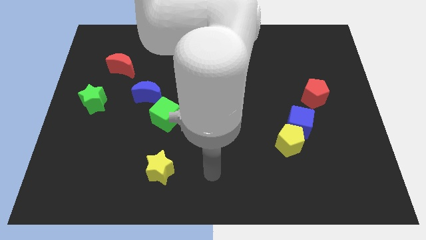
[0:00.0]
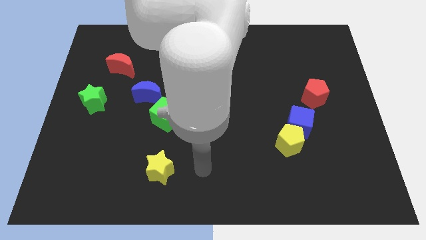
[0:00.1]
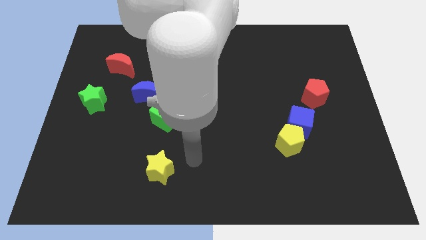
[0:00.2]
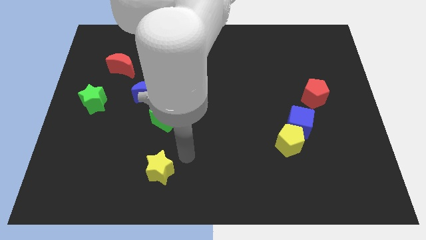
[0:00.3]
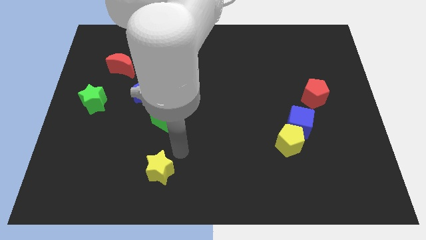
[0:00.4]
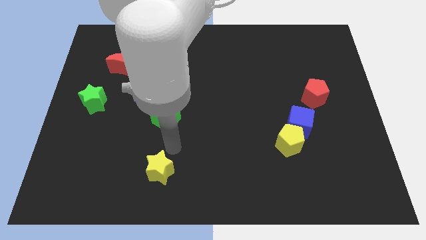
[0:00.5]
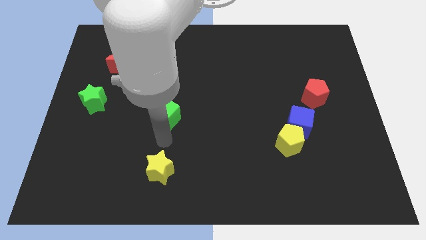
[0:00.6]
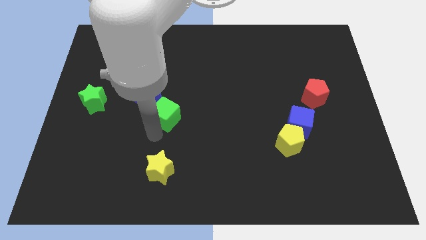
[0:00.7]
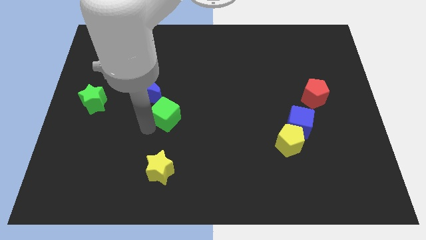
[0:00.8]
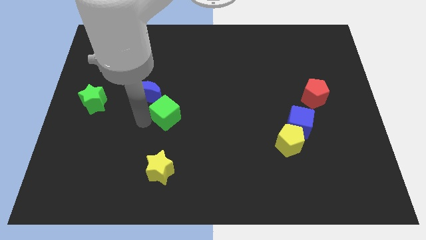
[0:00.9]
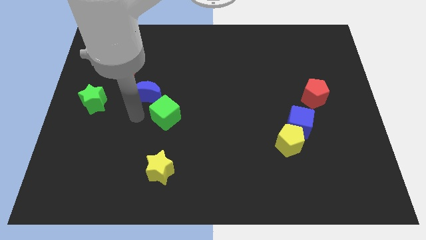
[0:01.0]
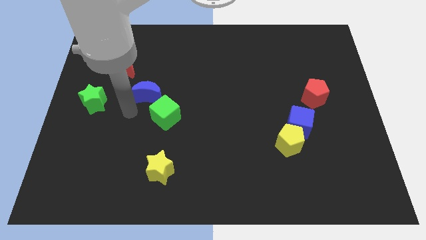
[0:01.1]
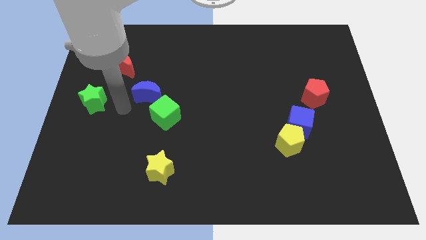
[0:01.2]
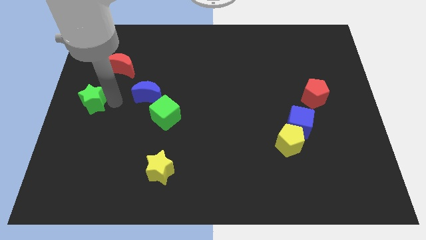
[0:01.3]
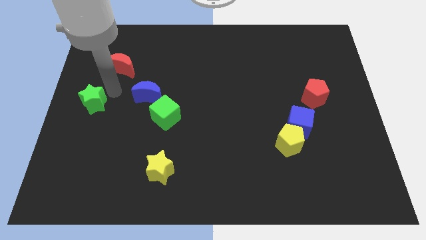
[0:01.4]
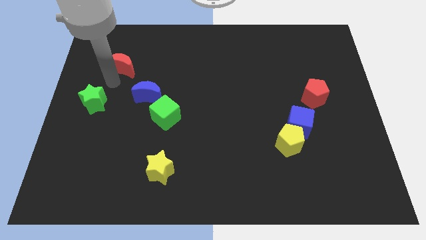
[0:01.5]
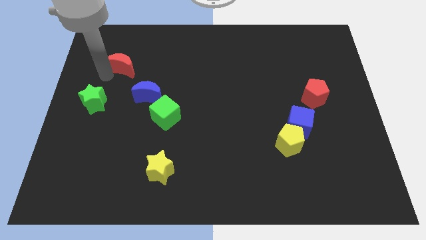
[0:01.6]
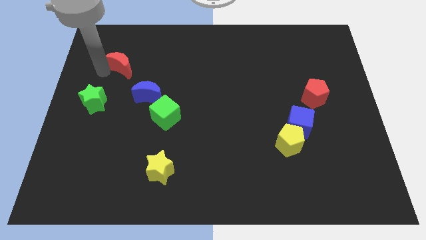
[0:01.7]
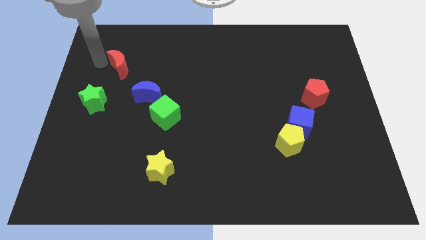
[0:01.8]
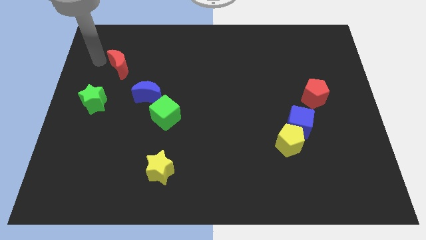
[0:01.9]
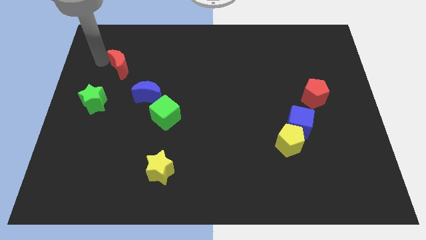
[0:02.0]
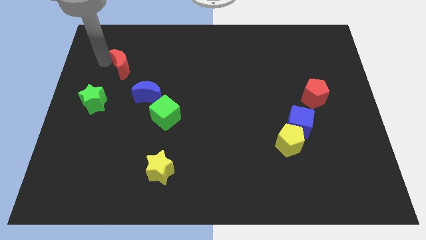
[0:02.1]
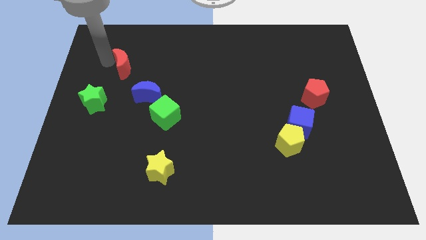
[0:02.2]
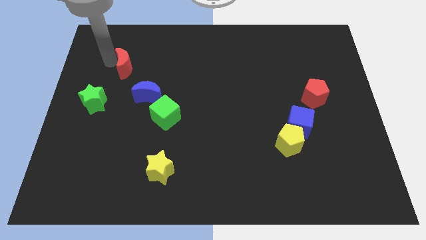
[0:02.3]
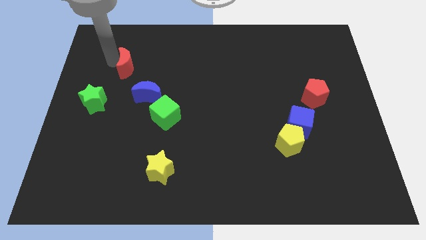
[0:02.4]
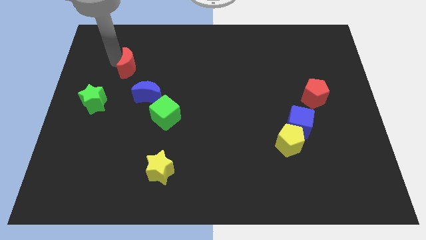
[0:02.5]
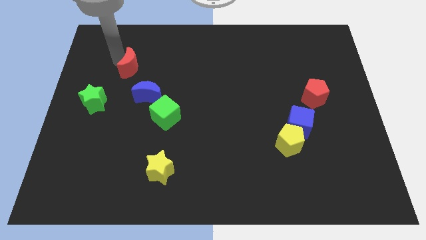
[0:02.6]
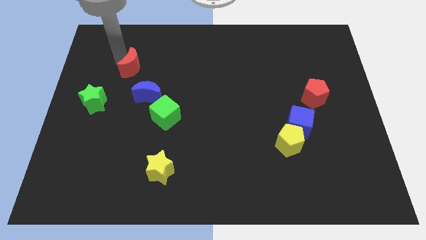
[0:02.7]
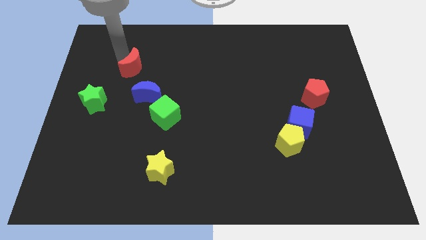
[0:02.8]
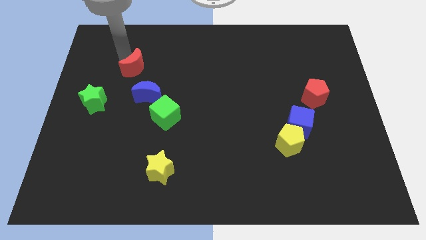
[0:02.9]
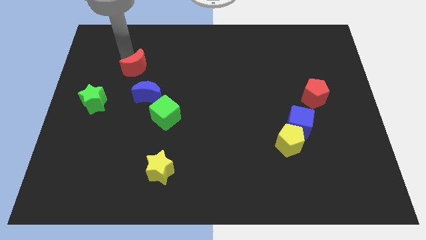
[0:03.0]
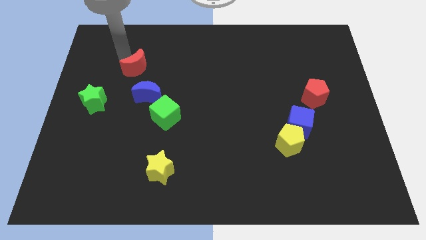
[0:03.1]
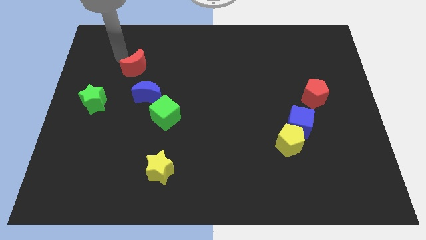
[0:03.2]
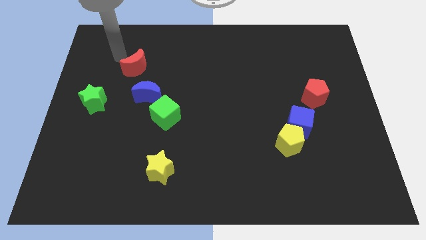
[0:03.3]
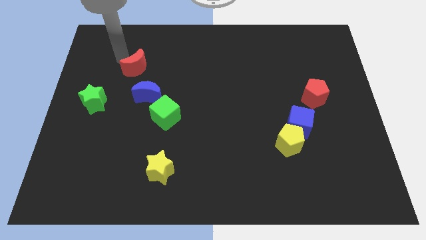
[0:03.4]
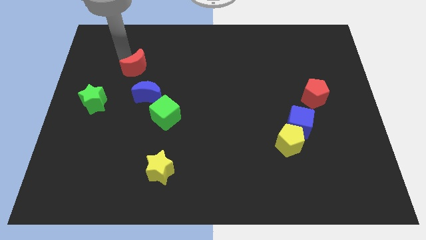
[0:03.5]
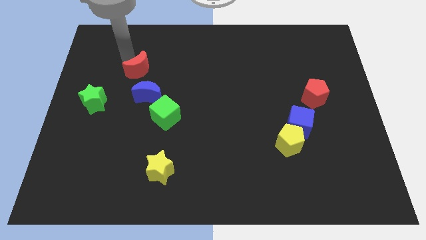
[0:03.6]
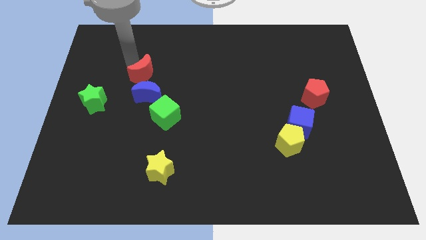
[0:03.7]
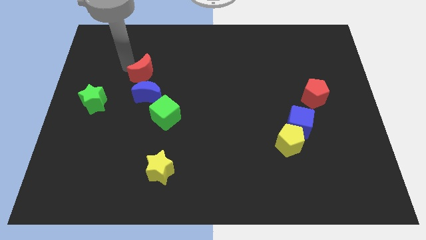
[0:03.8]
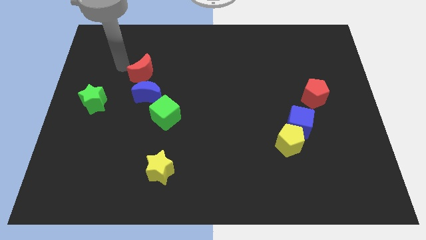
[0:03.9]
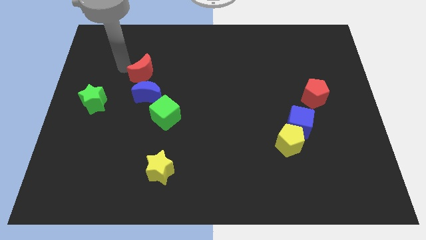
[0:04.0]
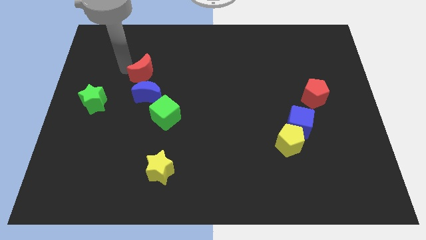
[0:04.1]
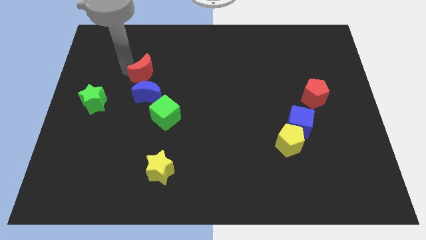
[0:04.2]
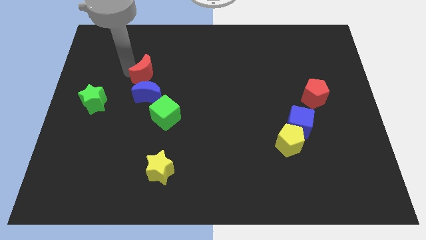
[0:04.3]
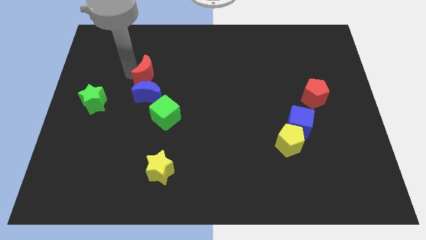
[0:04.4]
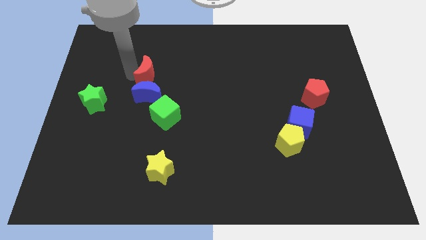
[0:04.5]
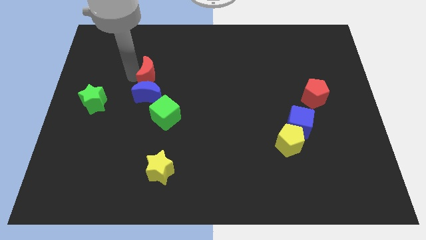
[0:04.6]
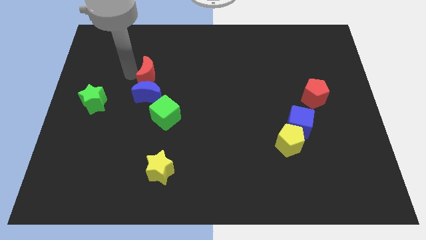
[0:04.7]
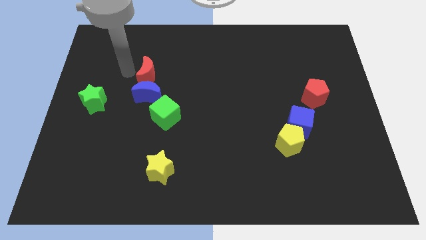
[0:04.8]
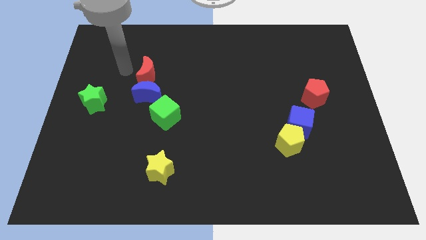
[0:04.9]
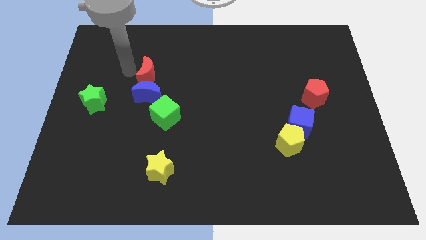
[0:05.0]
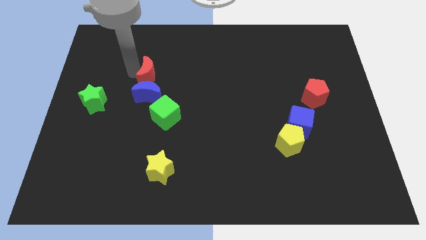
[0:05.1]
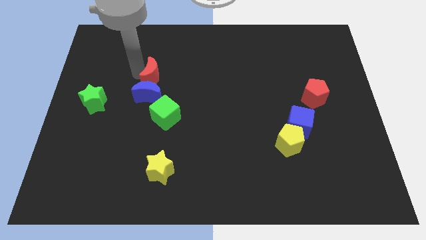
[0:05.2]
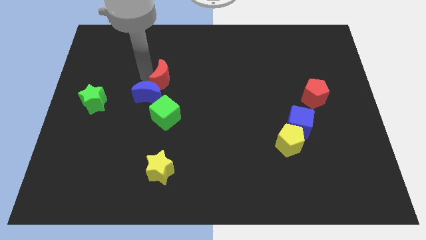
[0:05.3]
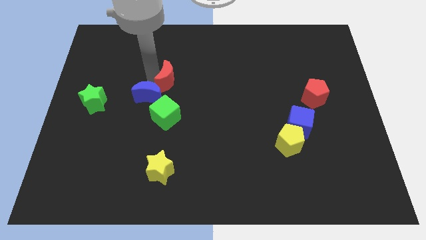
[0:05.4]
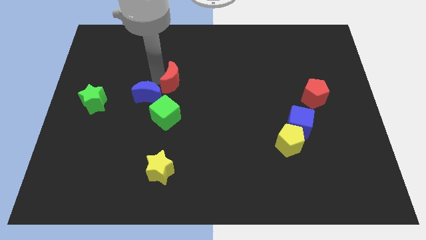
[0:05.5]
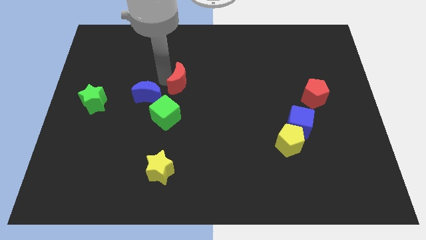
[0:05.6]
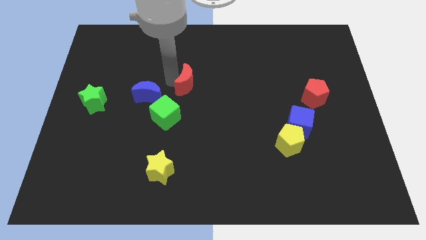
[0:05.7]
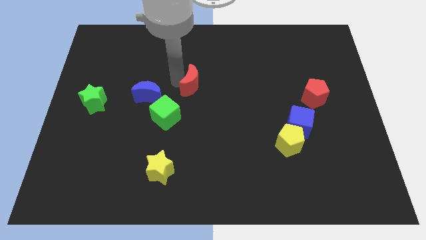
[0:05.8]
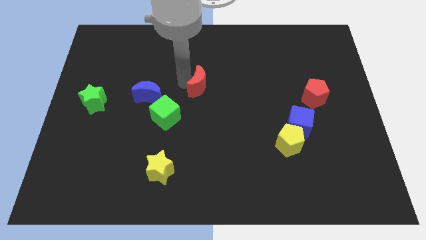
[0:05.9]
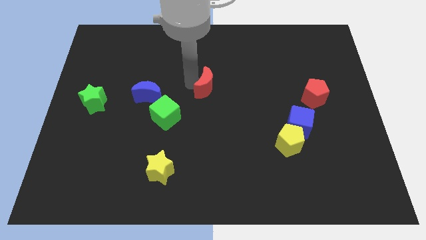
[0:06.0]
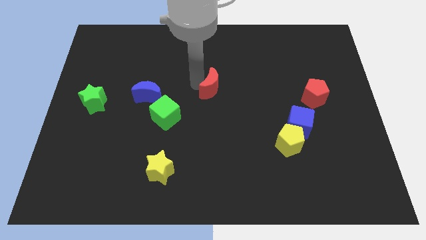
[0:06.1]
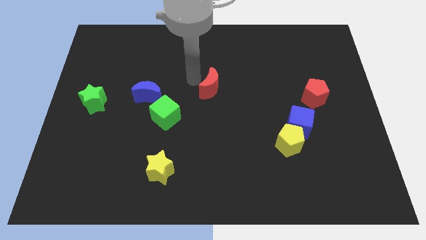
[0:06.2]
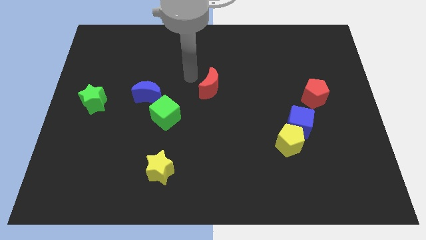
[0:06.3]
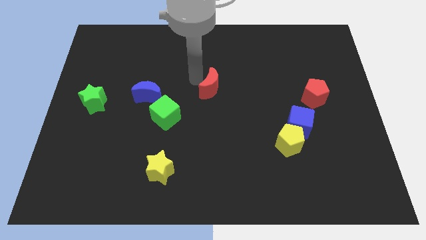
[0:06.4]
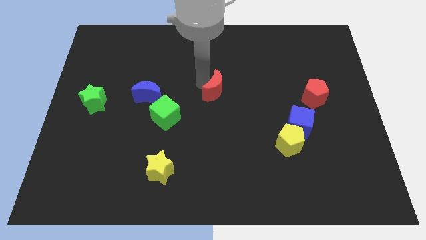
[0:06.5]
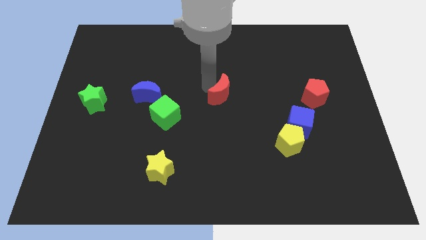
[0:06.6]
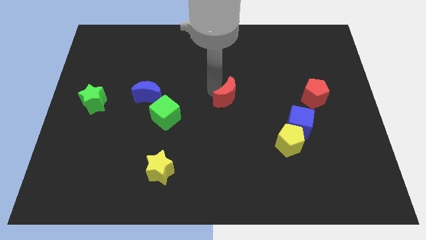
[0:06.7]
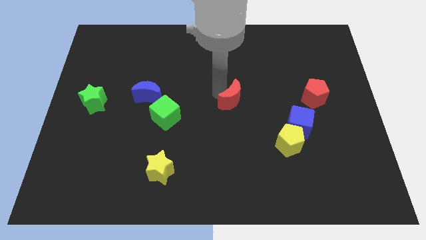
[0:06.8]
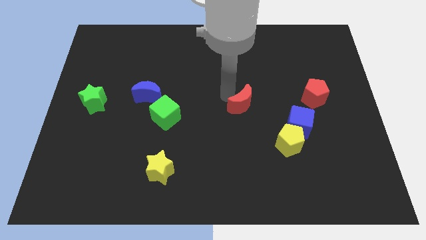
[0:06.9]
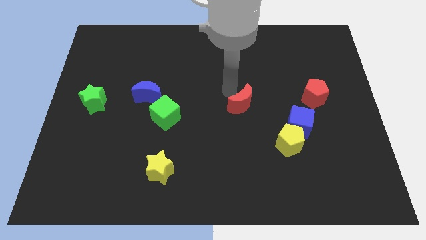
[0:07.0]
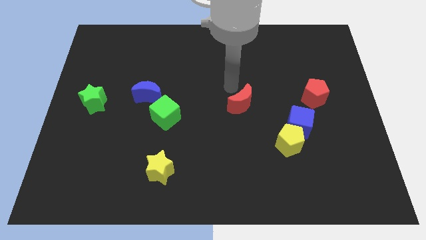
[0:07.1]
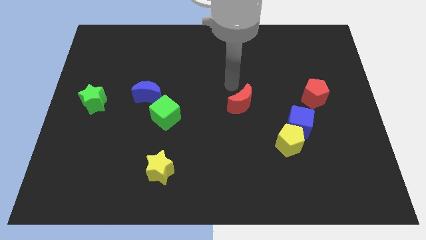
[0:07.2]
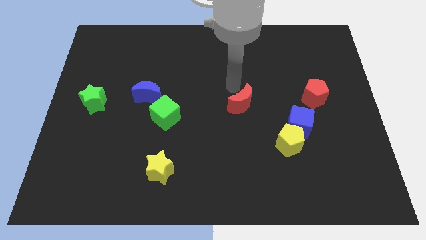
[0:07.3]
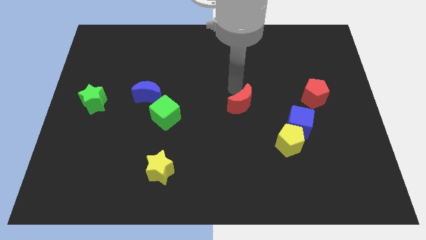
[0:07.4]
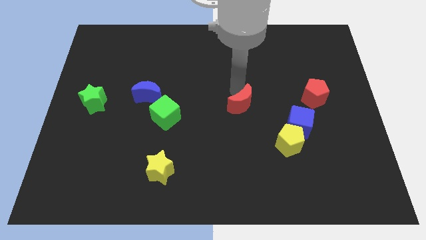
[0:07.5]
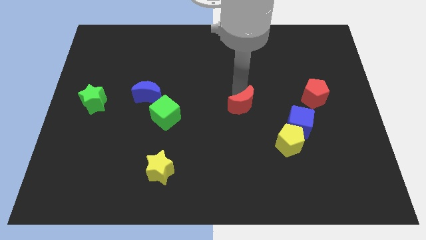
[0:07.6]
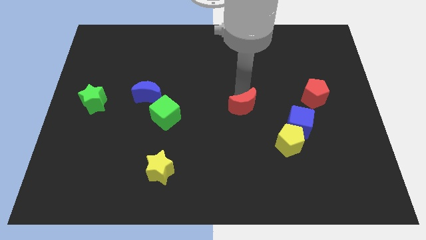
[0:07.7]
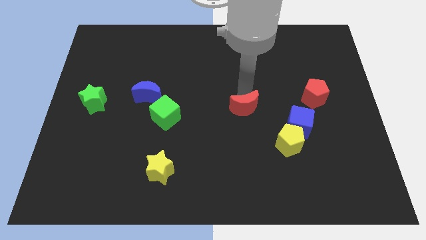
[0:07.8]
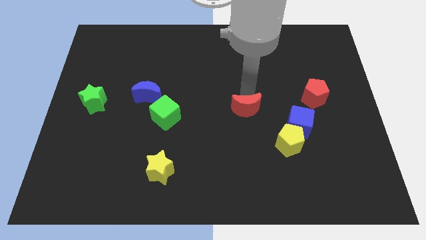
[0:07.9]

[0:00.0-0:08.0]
slide the red moon left of the blue cube
